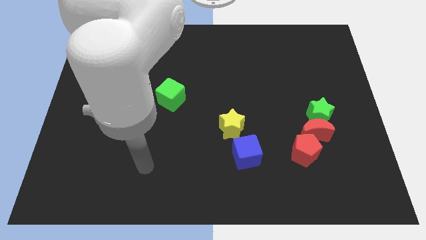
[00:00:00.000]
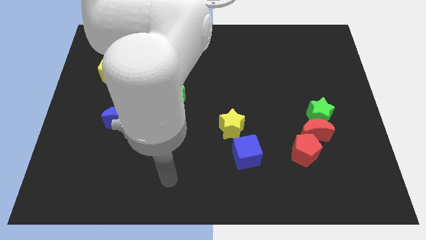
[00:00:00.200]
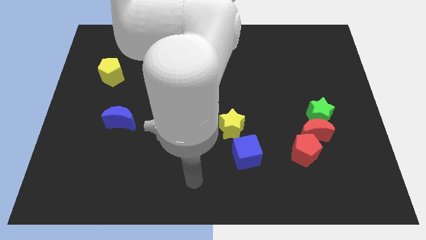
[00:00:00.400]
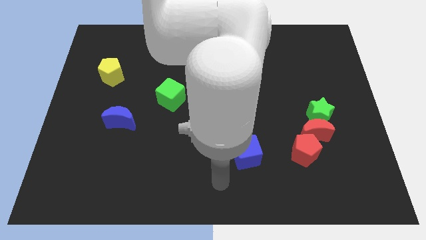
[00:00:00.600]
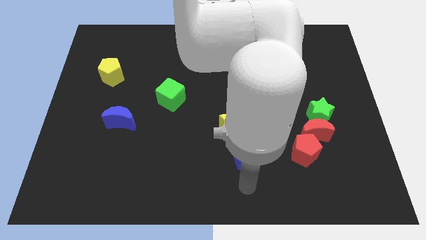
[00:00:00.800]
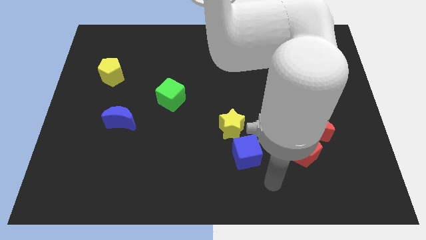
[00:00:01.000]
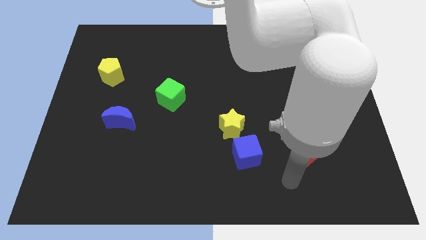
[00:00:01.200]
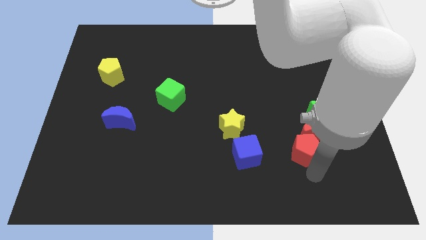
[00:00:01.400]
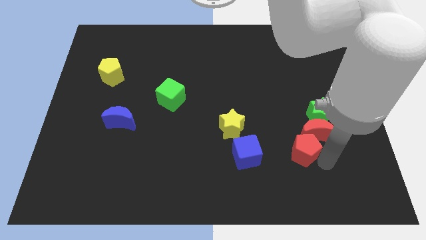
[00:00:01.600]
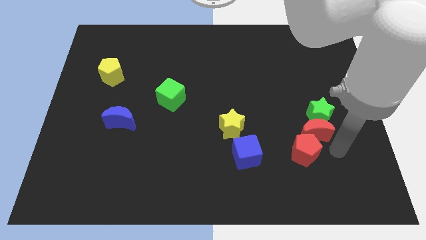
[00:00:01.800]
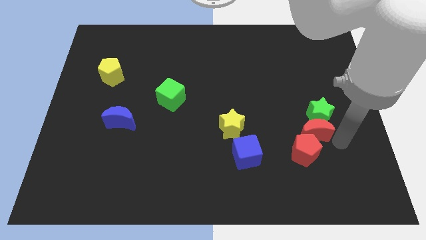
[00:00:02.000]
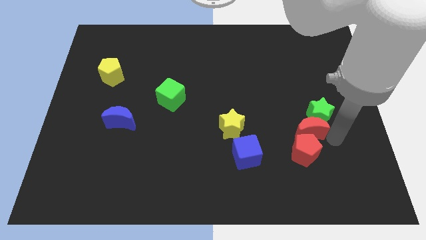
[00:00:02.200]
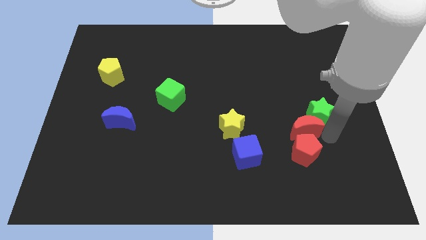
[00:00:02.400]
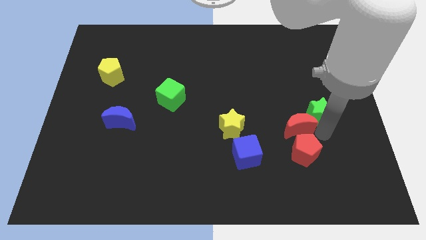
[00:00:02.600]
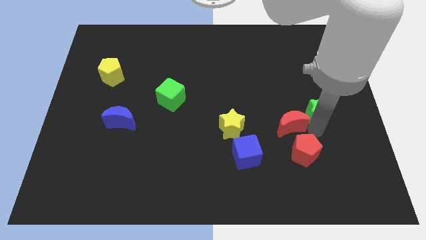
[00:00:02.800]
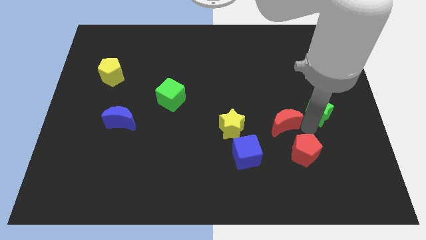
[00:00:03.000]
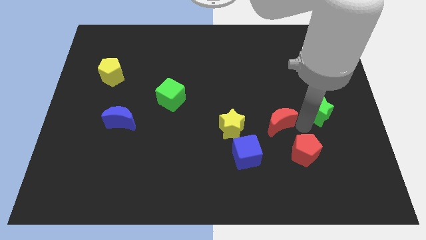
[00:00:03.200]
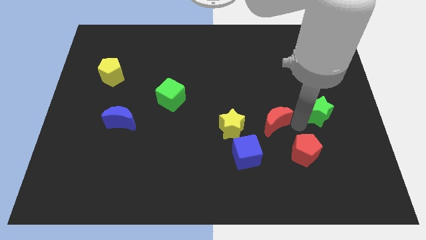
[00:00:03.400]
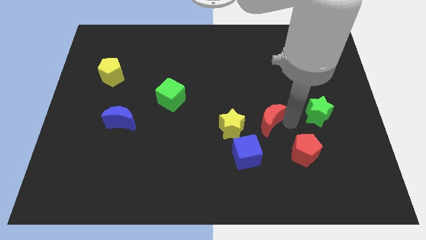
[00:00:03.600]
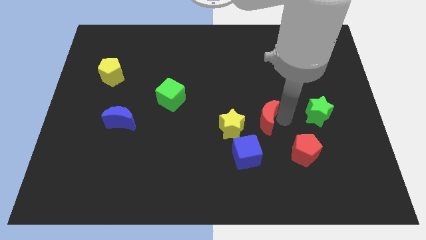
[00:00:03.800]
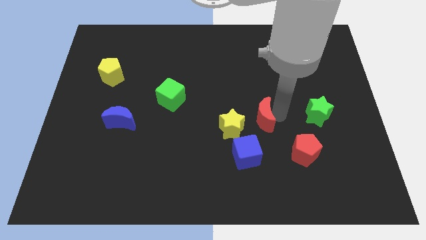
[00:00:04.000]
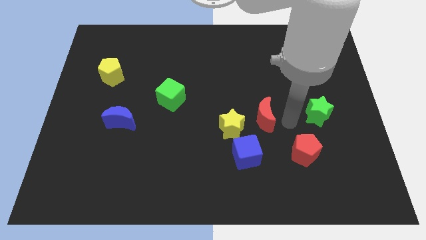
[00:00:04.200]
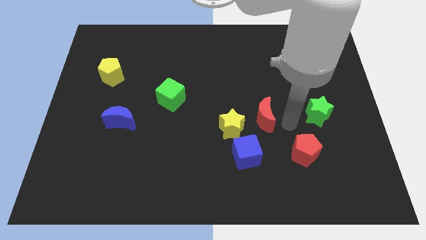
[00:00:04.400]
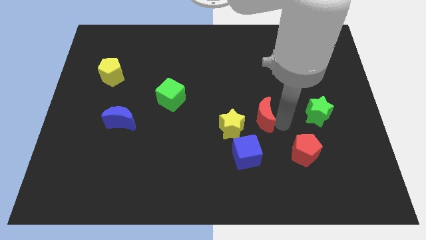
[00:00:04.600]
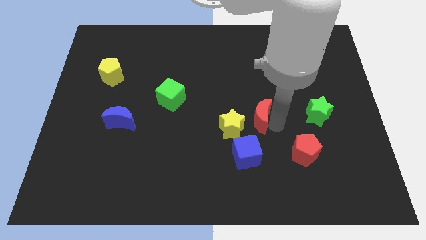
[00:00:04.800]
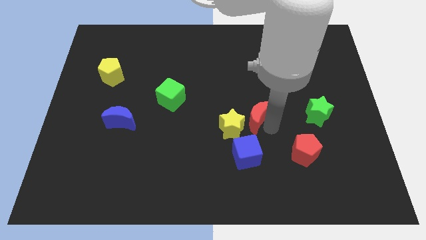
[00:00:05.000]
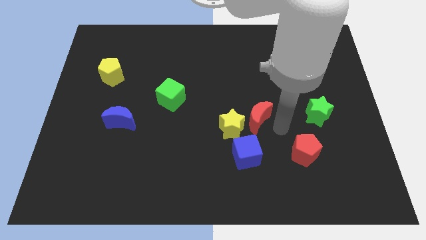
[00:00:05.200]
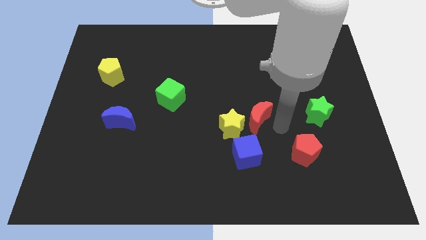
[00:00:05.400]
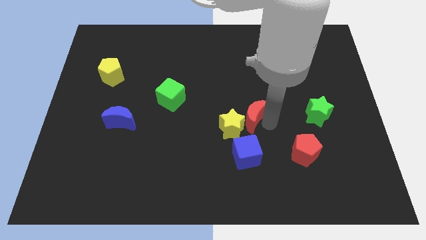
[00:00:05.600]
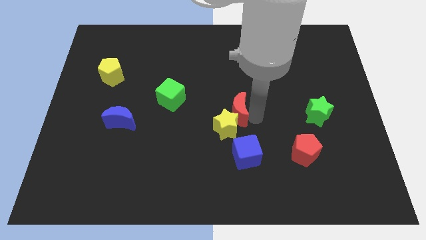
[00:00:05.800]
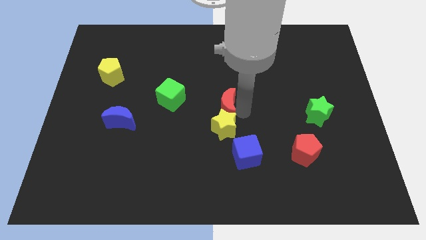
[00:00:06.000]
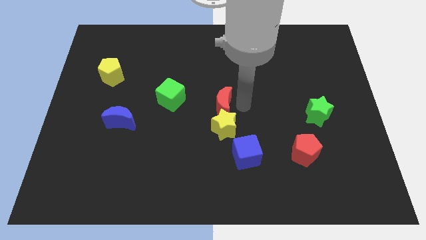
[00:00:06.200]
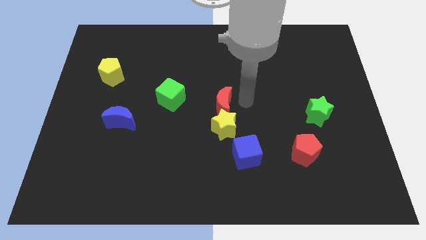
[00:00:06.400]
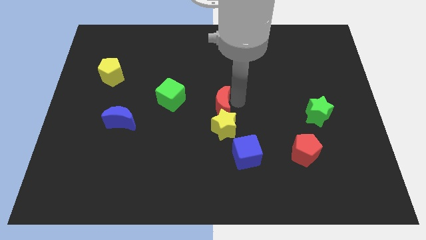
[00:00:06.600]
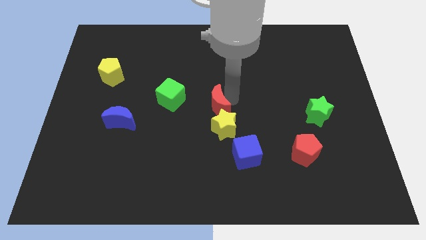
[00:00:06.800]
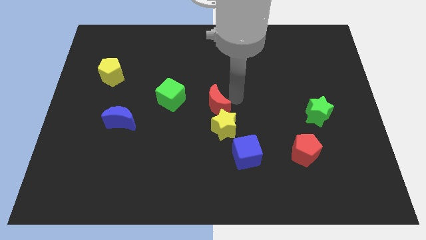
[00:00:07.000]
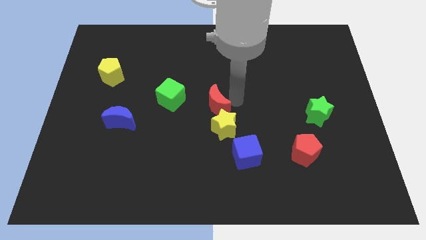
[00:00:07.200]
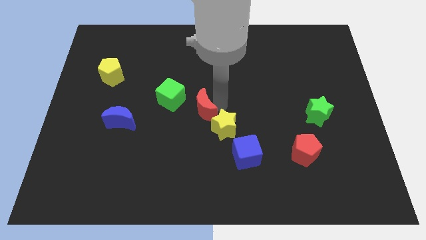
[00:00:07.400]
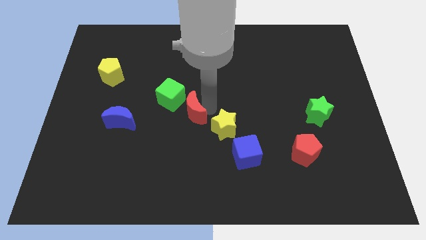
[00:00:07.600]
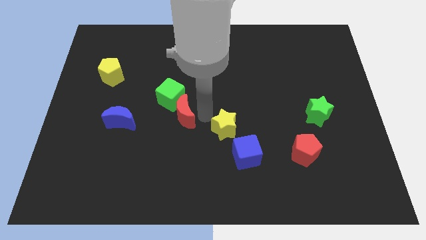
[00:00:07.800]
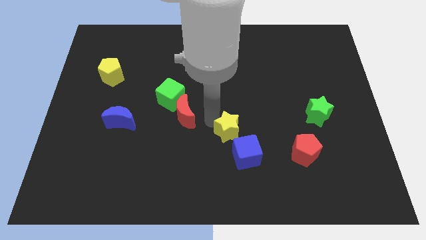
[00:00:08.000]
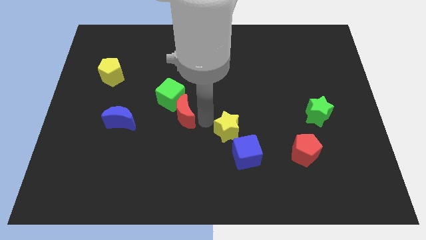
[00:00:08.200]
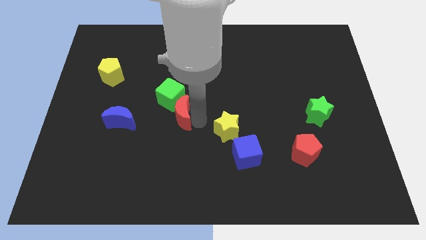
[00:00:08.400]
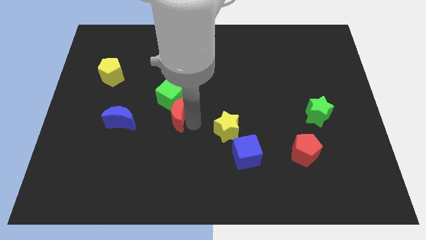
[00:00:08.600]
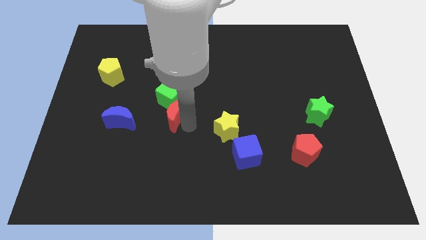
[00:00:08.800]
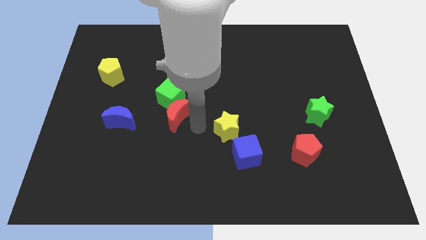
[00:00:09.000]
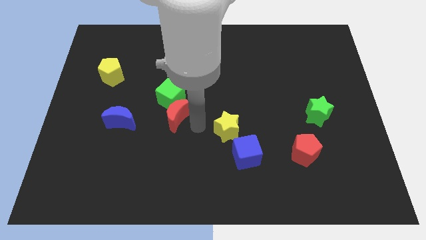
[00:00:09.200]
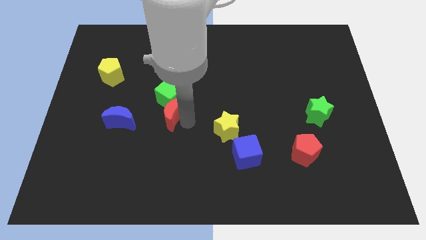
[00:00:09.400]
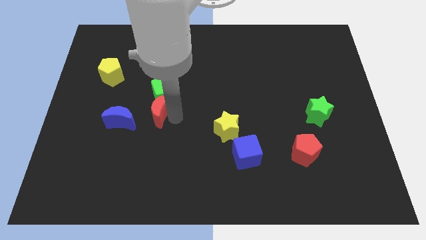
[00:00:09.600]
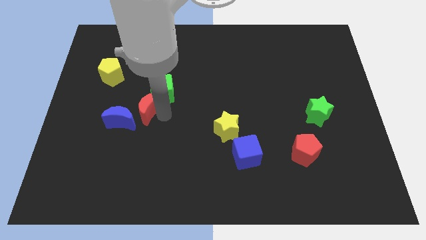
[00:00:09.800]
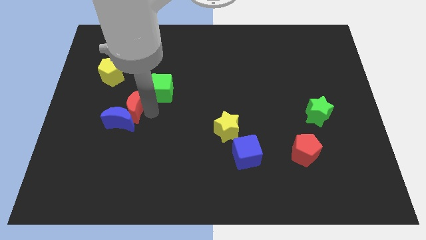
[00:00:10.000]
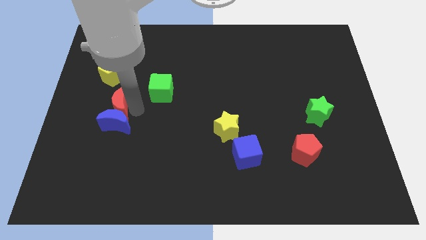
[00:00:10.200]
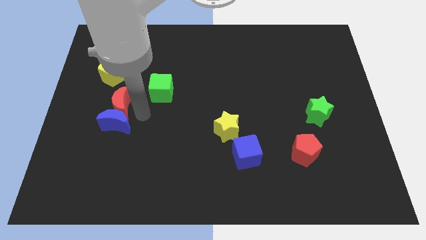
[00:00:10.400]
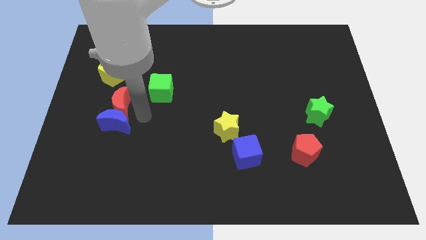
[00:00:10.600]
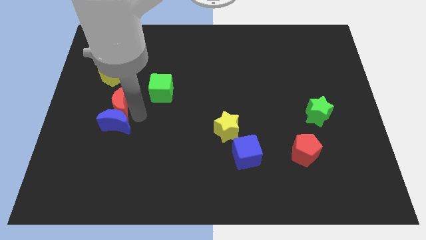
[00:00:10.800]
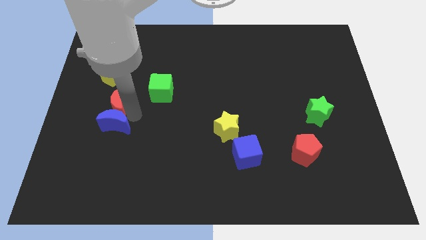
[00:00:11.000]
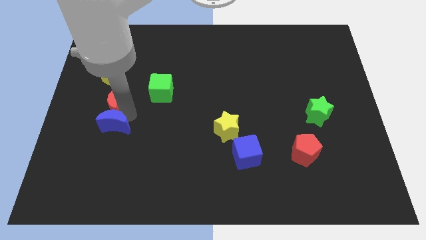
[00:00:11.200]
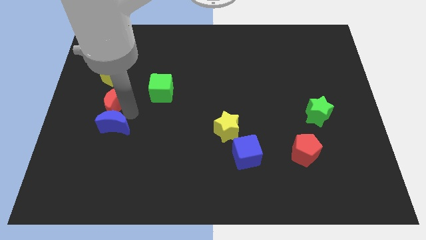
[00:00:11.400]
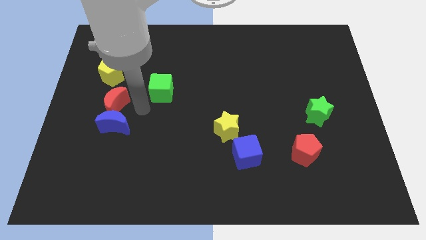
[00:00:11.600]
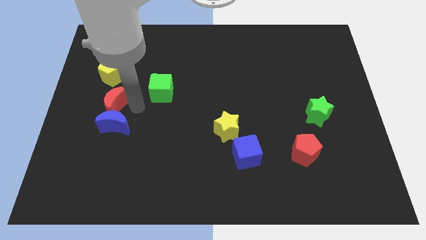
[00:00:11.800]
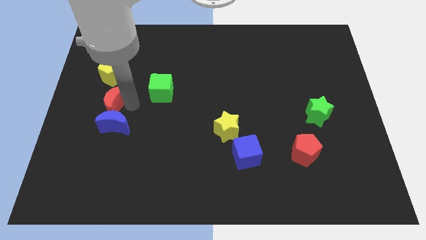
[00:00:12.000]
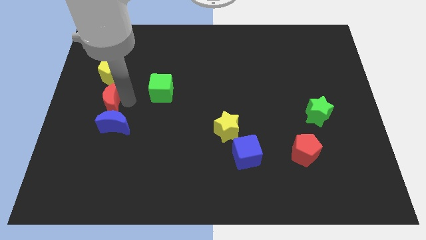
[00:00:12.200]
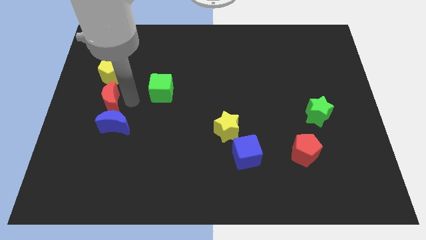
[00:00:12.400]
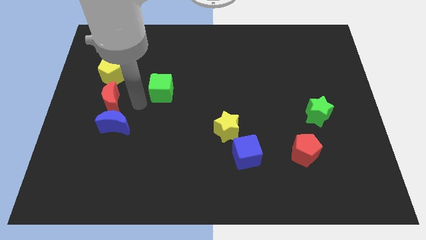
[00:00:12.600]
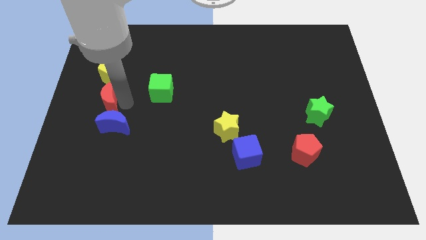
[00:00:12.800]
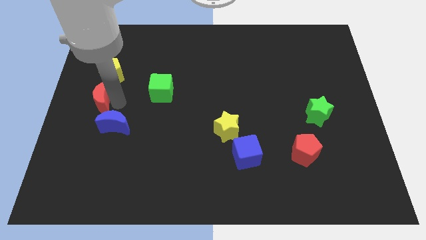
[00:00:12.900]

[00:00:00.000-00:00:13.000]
slide the red moon to the left side
